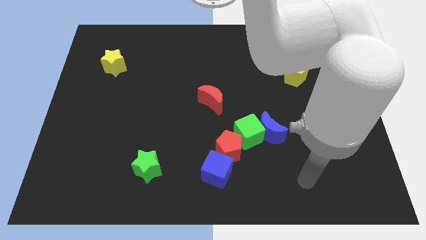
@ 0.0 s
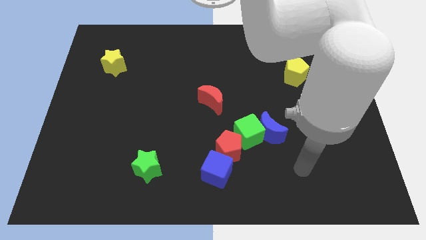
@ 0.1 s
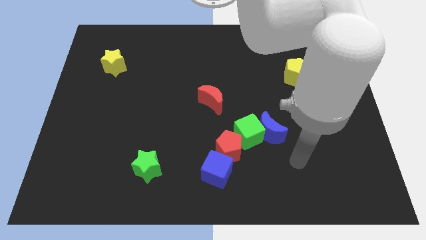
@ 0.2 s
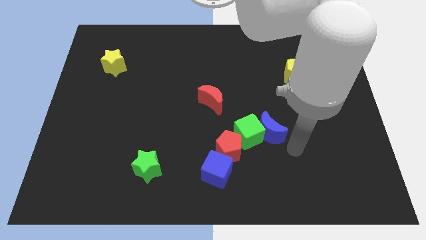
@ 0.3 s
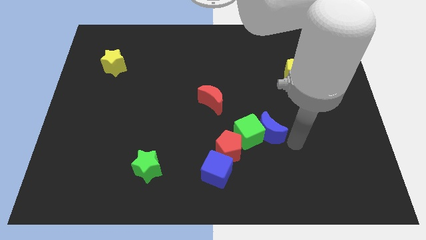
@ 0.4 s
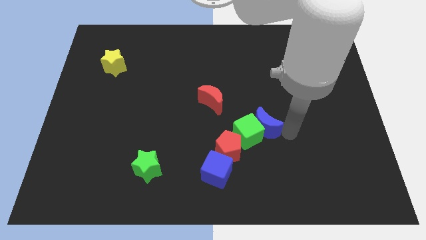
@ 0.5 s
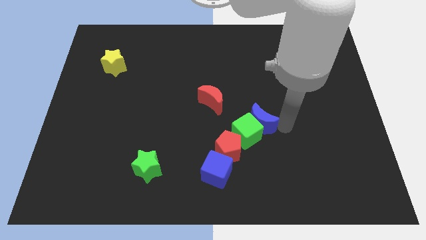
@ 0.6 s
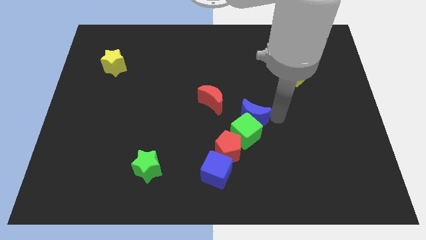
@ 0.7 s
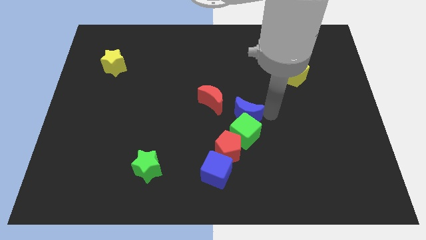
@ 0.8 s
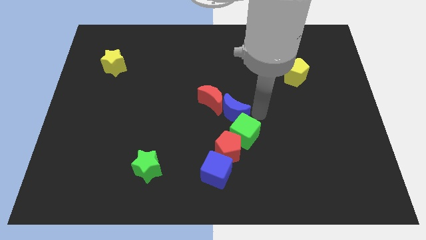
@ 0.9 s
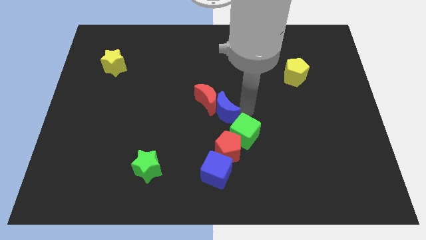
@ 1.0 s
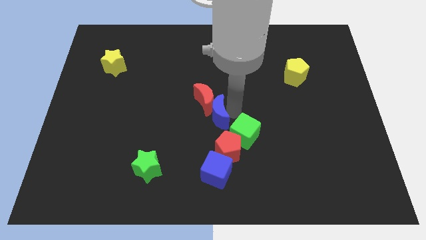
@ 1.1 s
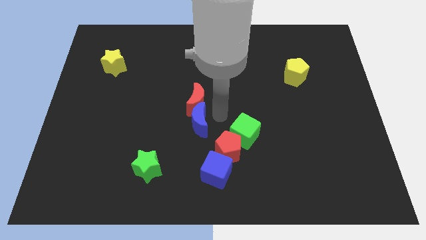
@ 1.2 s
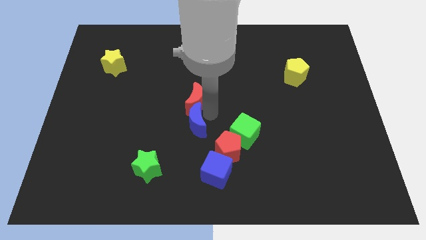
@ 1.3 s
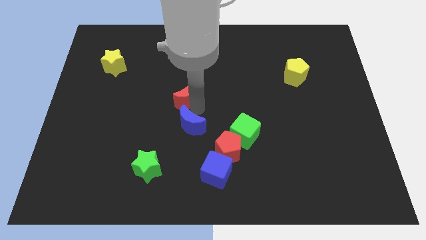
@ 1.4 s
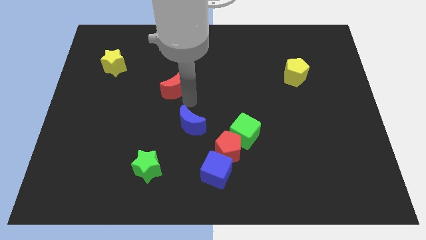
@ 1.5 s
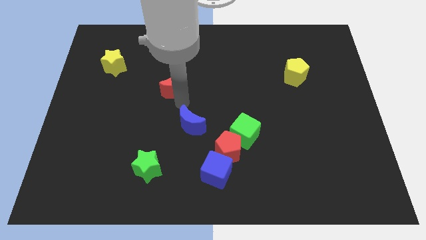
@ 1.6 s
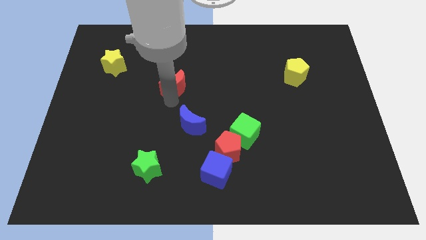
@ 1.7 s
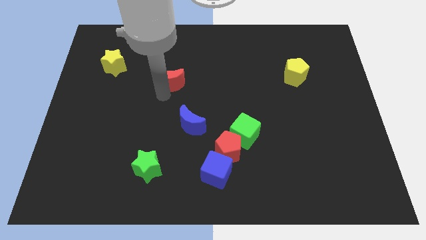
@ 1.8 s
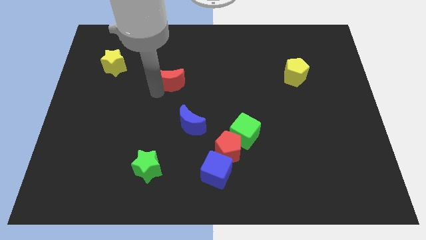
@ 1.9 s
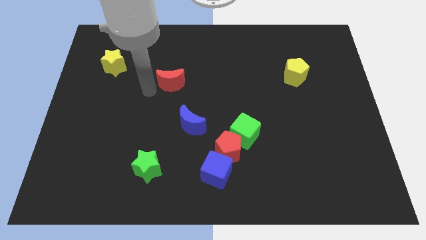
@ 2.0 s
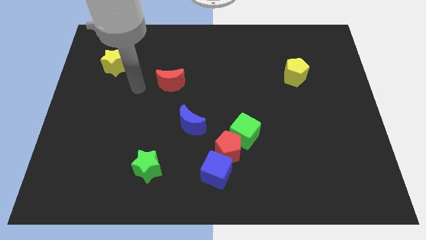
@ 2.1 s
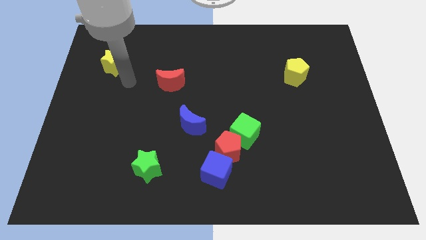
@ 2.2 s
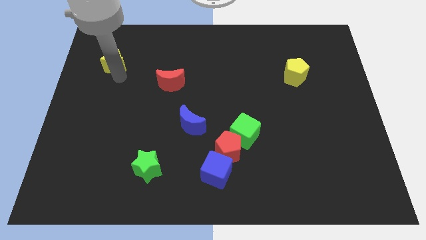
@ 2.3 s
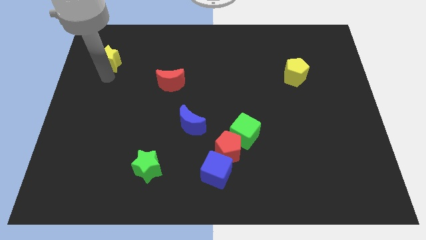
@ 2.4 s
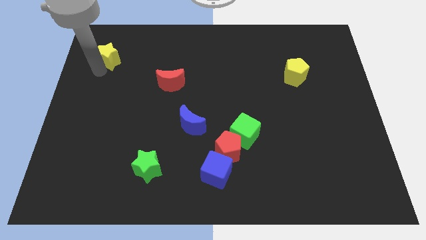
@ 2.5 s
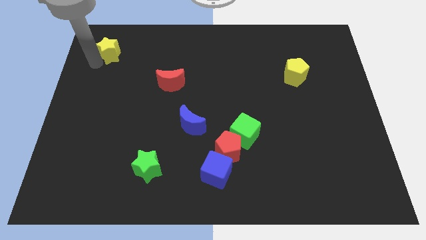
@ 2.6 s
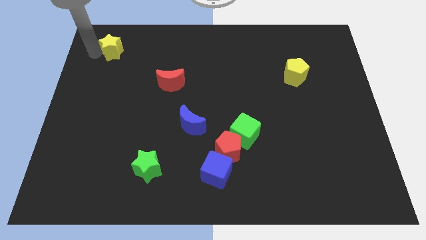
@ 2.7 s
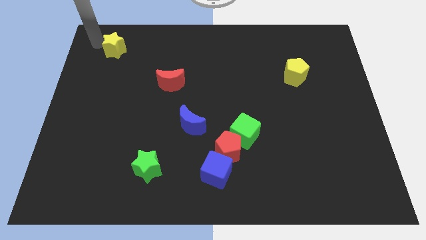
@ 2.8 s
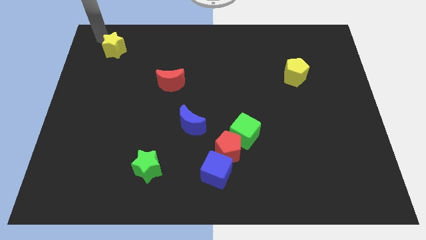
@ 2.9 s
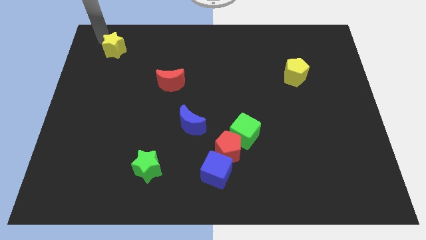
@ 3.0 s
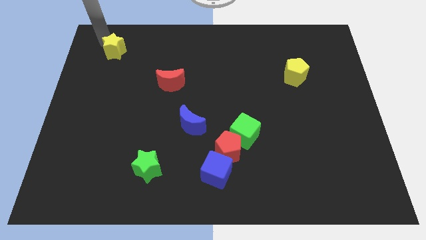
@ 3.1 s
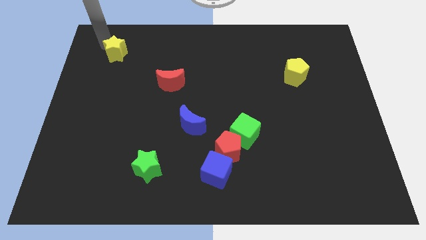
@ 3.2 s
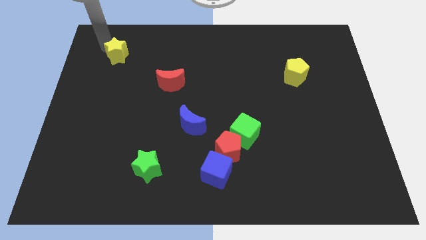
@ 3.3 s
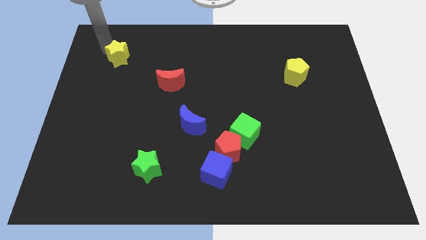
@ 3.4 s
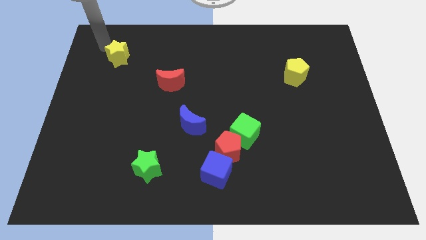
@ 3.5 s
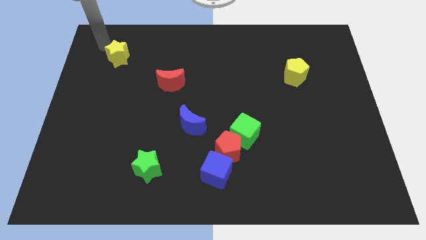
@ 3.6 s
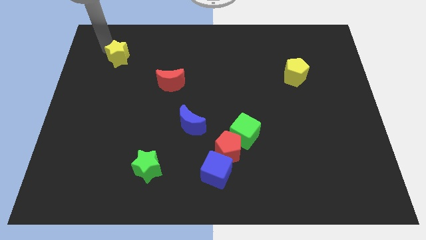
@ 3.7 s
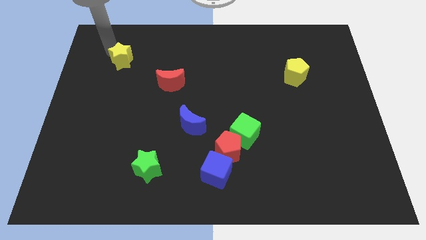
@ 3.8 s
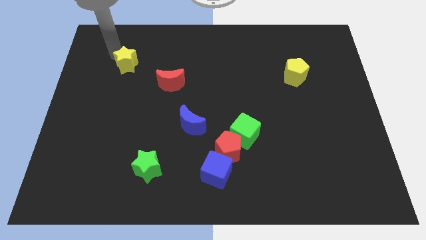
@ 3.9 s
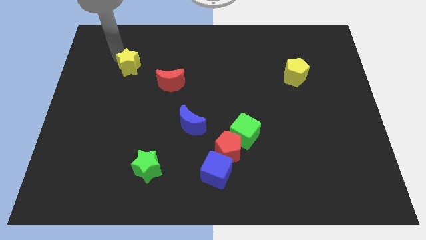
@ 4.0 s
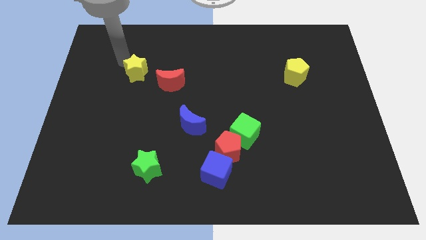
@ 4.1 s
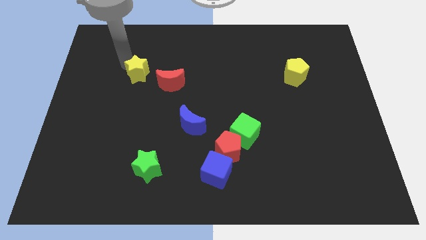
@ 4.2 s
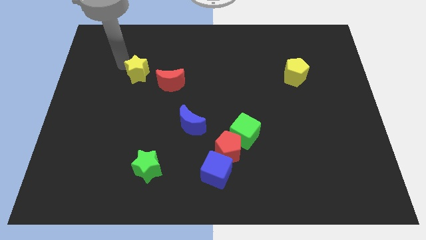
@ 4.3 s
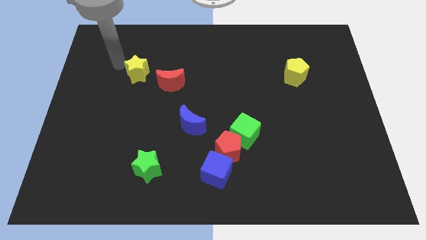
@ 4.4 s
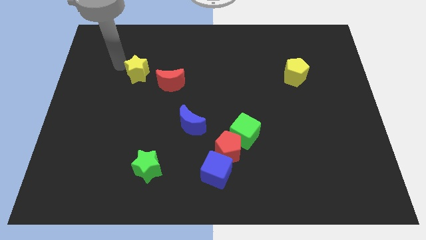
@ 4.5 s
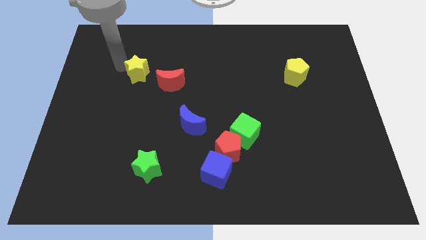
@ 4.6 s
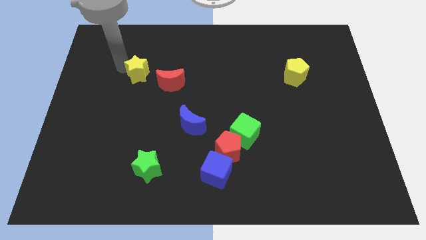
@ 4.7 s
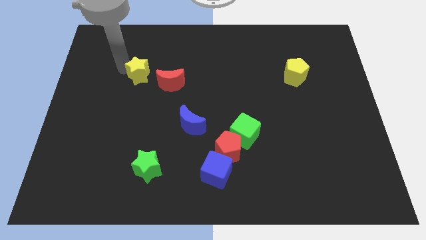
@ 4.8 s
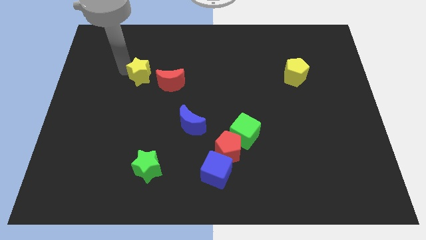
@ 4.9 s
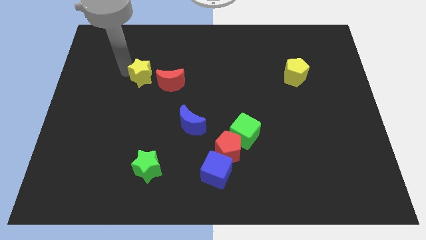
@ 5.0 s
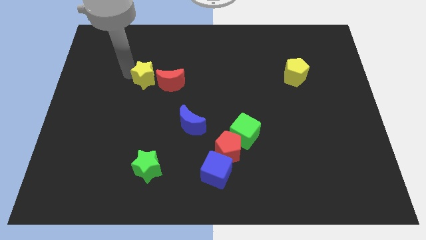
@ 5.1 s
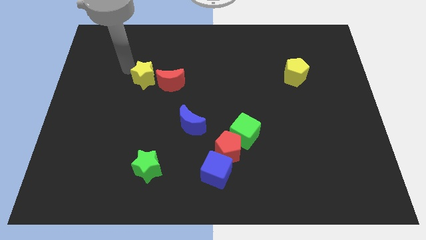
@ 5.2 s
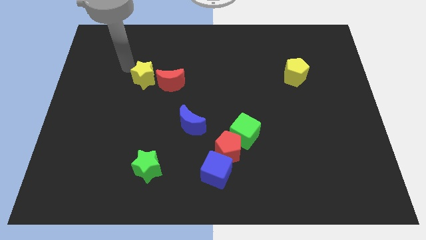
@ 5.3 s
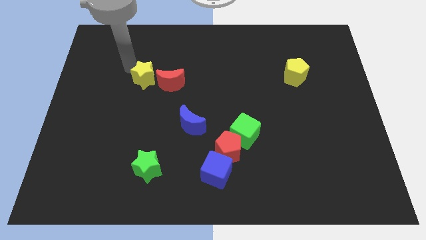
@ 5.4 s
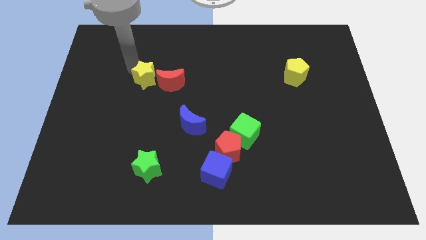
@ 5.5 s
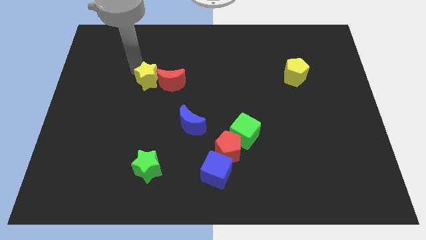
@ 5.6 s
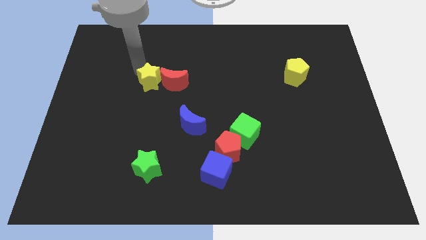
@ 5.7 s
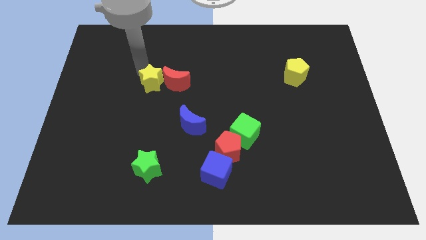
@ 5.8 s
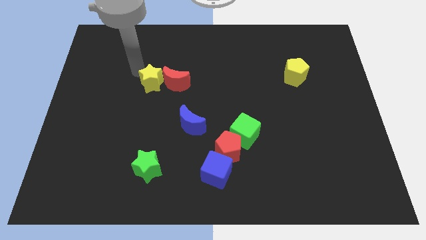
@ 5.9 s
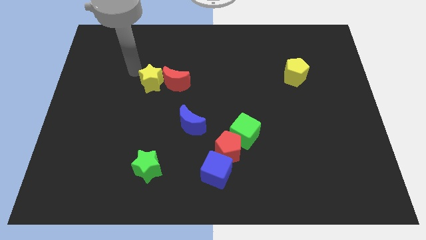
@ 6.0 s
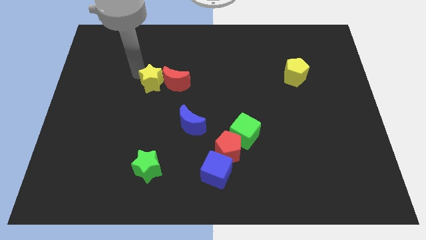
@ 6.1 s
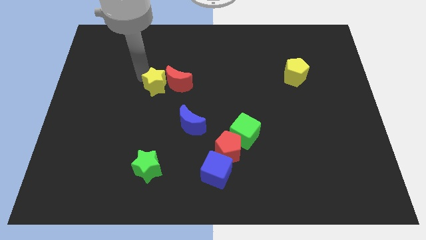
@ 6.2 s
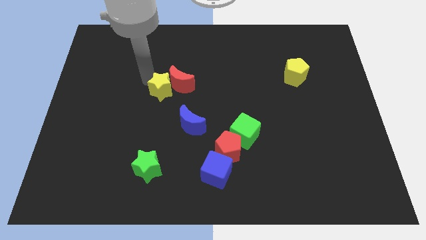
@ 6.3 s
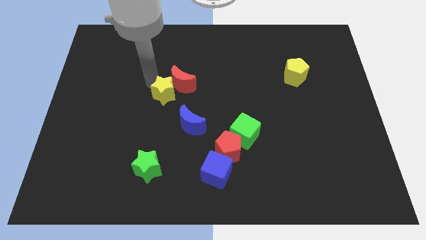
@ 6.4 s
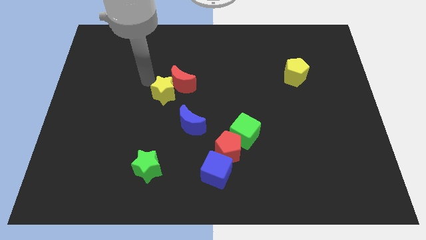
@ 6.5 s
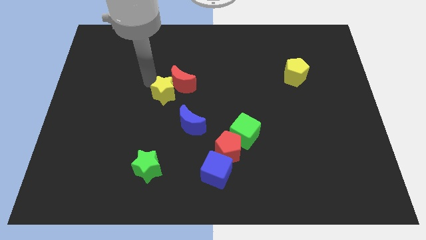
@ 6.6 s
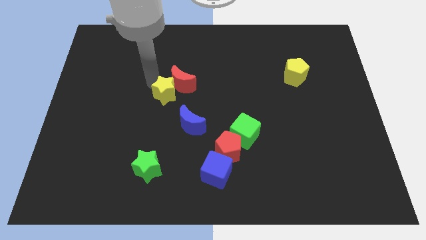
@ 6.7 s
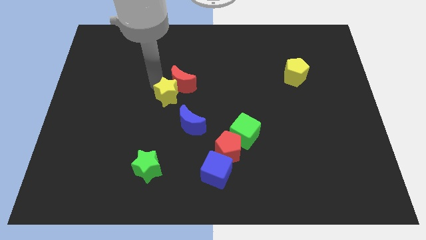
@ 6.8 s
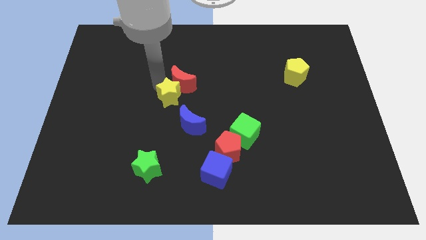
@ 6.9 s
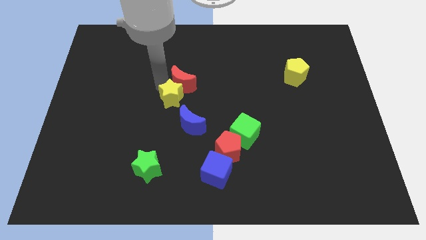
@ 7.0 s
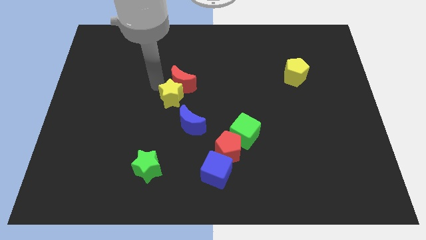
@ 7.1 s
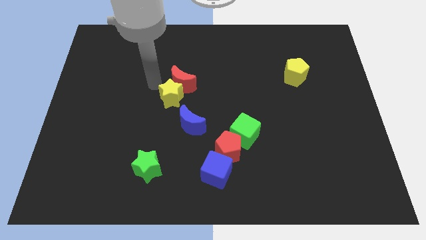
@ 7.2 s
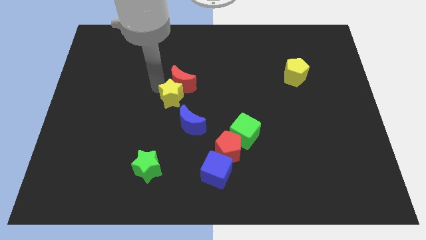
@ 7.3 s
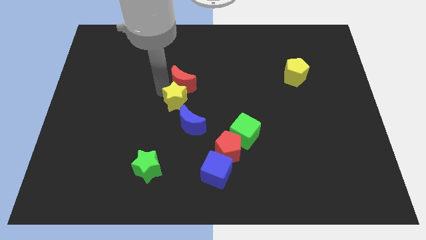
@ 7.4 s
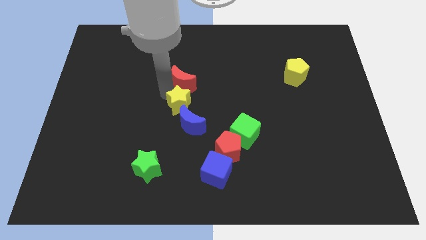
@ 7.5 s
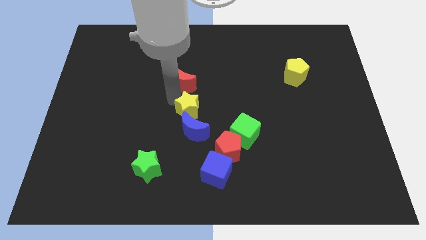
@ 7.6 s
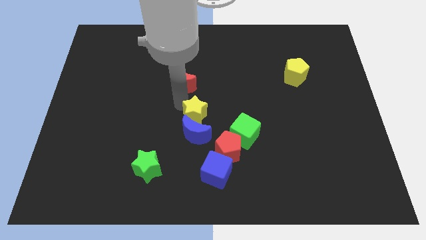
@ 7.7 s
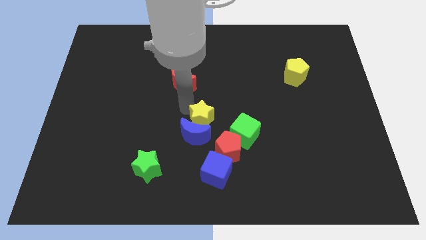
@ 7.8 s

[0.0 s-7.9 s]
slide the yellow star above the blue cube
